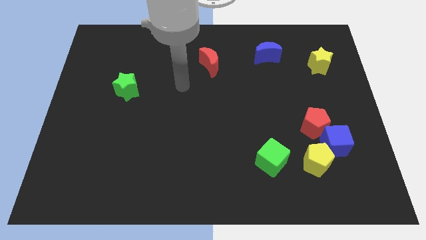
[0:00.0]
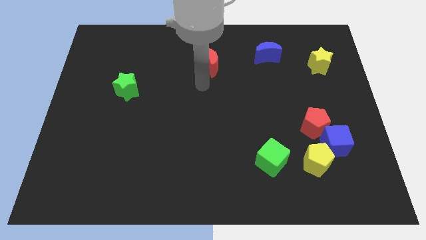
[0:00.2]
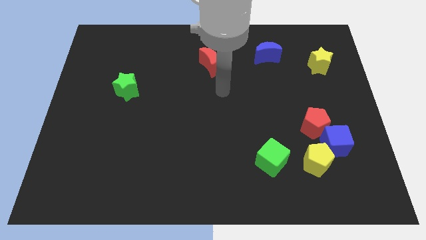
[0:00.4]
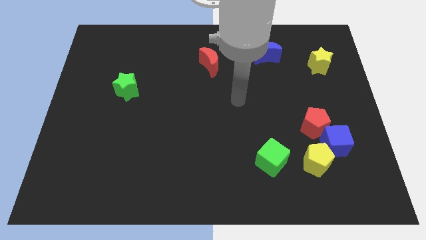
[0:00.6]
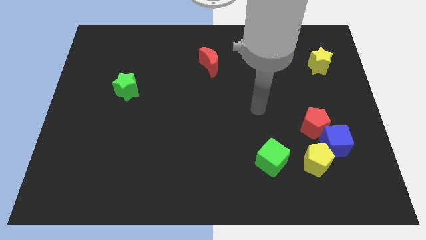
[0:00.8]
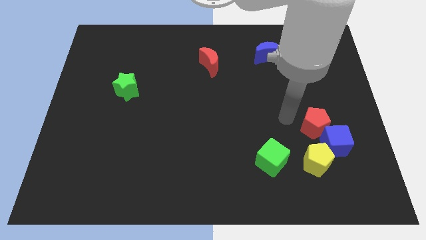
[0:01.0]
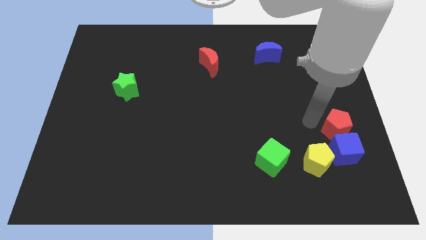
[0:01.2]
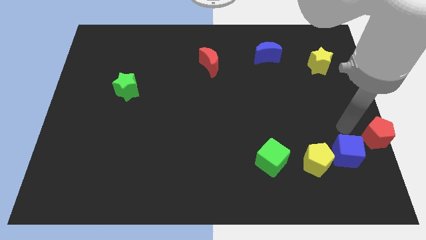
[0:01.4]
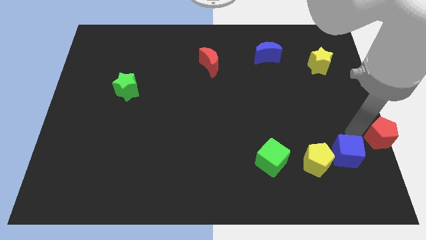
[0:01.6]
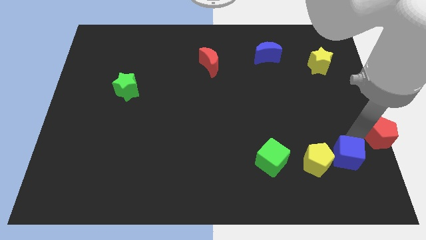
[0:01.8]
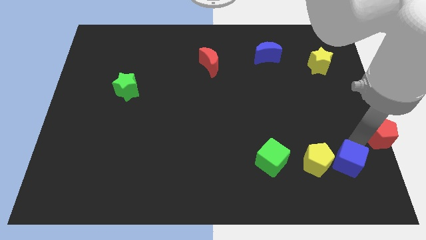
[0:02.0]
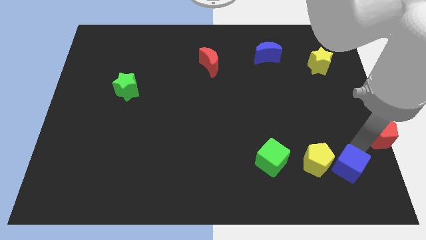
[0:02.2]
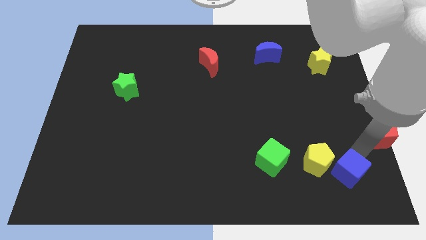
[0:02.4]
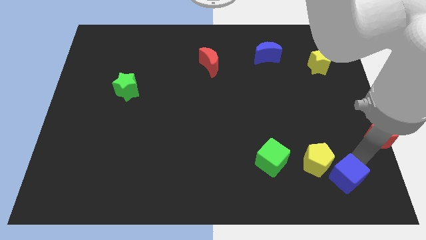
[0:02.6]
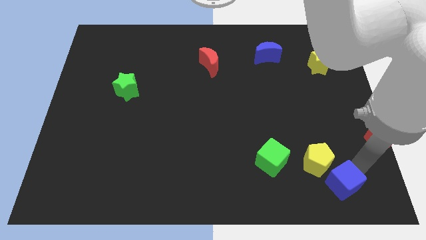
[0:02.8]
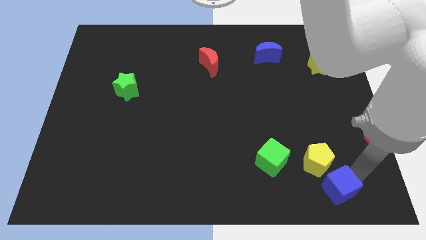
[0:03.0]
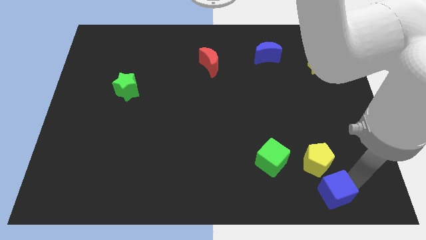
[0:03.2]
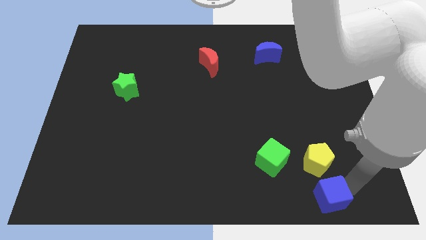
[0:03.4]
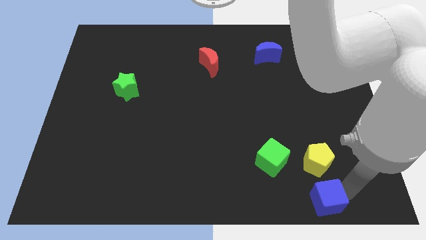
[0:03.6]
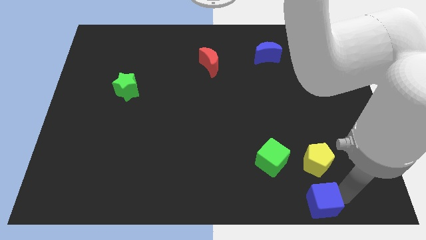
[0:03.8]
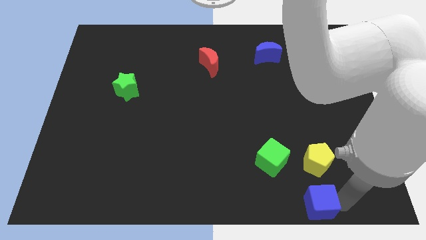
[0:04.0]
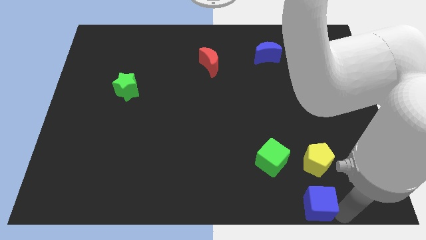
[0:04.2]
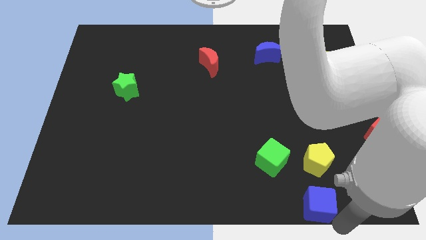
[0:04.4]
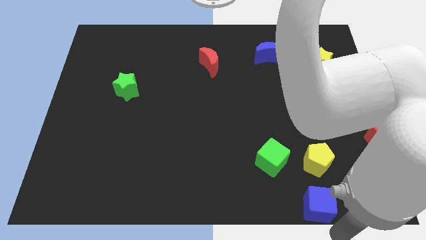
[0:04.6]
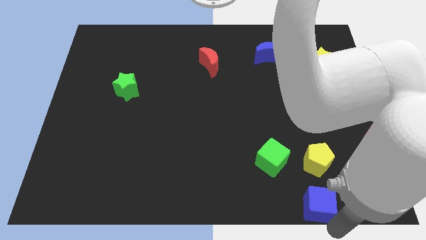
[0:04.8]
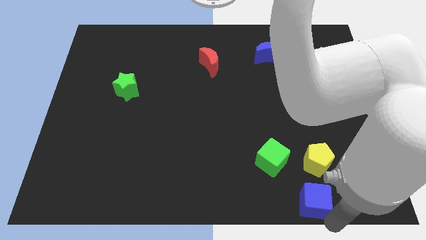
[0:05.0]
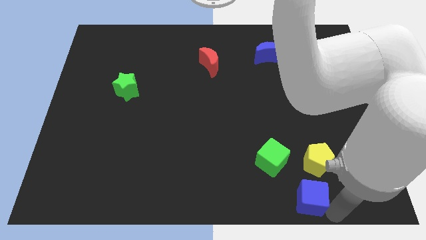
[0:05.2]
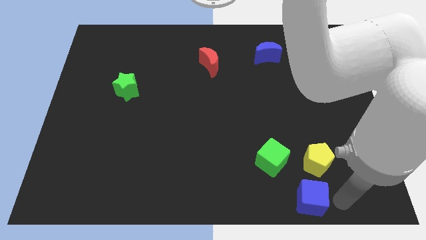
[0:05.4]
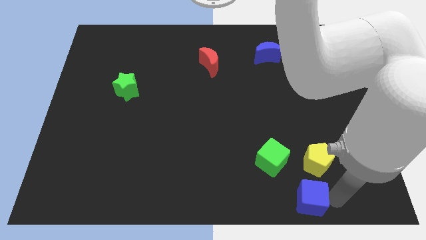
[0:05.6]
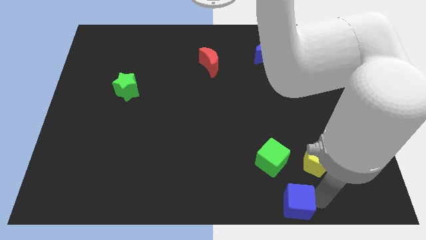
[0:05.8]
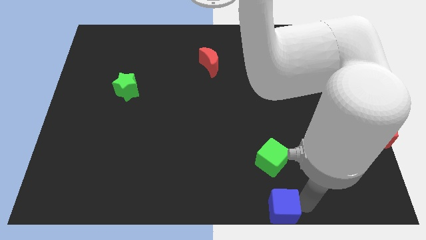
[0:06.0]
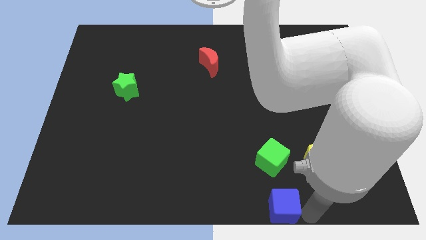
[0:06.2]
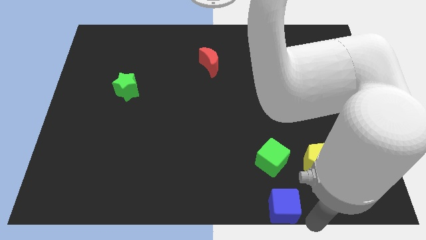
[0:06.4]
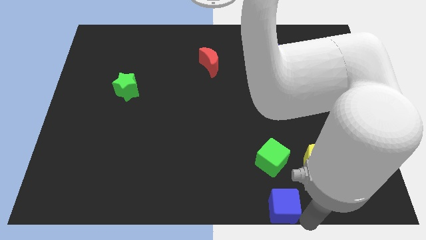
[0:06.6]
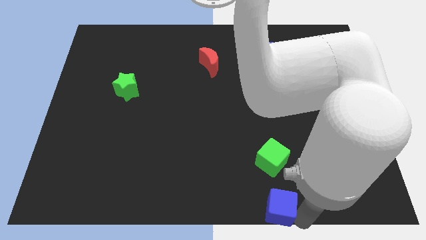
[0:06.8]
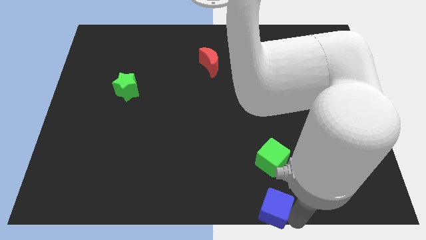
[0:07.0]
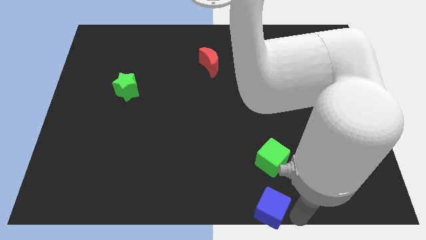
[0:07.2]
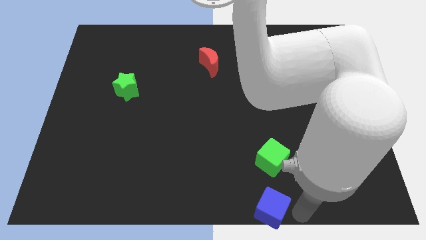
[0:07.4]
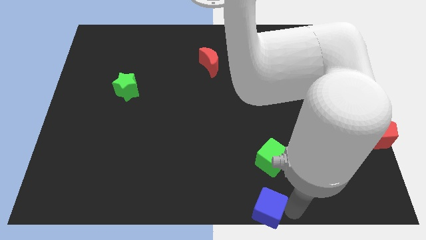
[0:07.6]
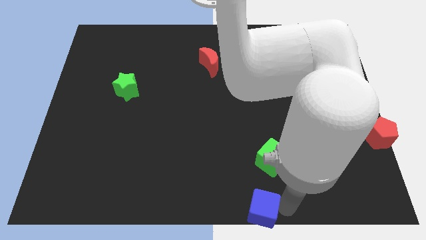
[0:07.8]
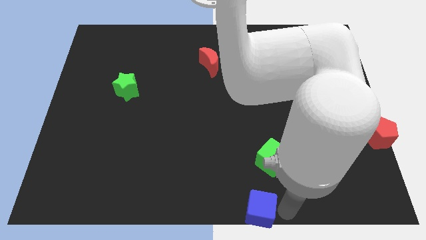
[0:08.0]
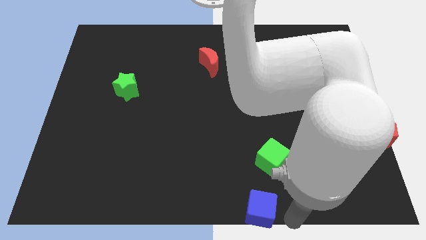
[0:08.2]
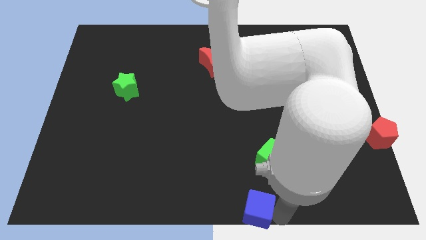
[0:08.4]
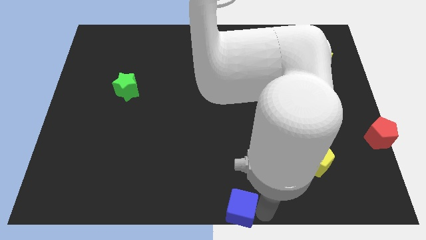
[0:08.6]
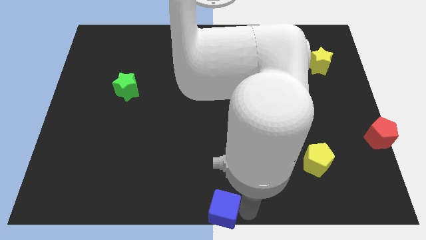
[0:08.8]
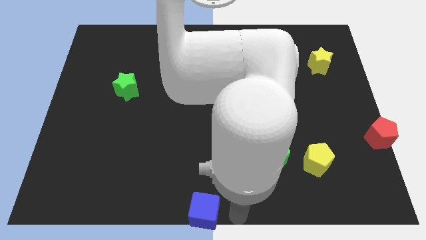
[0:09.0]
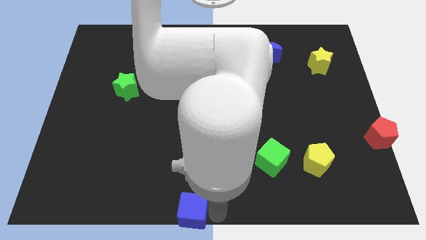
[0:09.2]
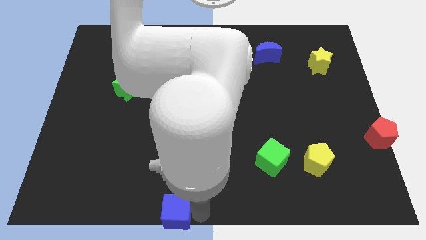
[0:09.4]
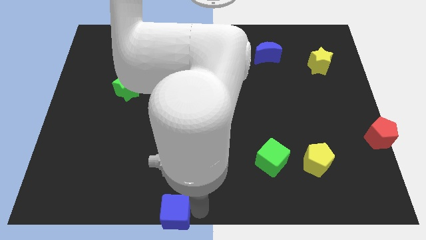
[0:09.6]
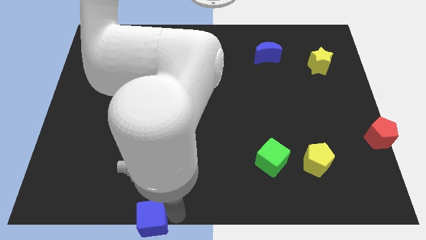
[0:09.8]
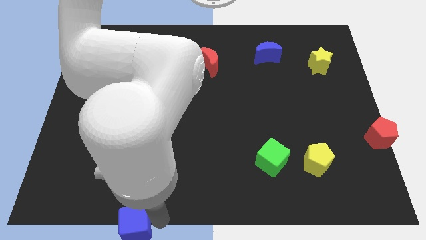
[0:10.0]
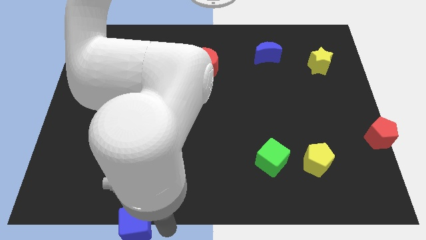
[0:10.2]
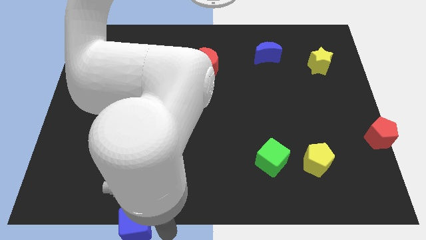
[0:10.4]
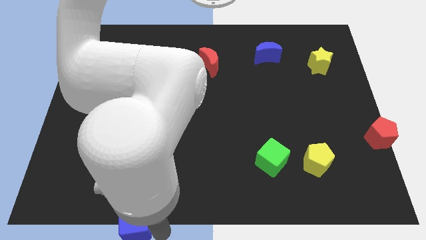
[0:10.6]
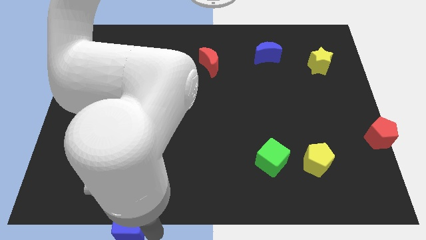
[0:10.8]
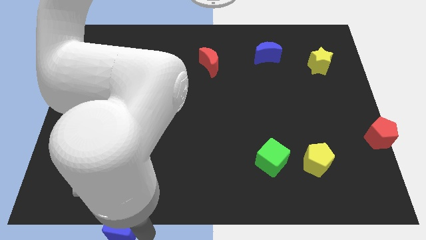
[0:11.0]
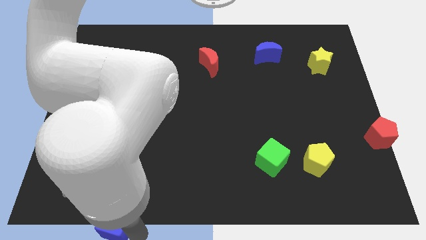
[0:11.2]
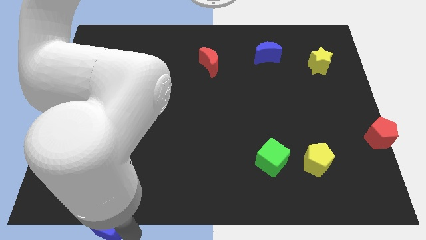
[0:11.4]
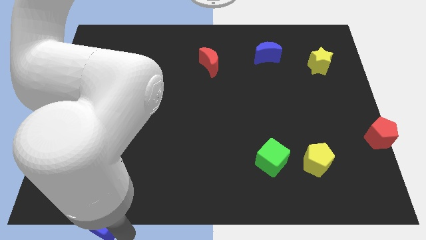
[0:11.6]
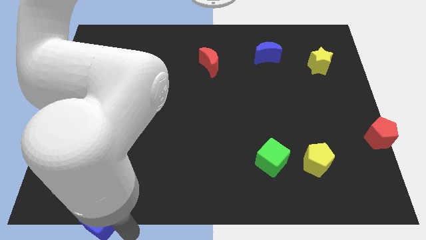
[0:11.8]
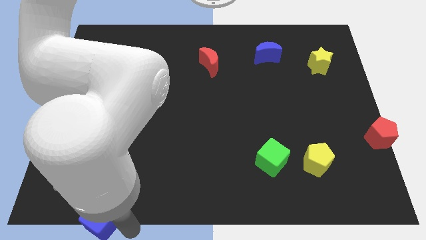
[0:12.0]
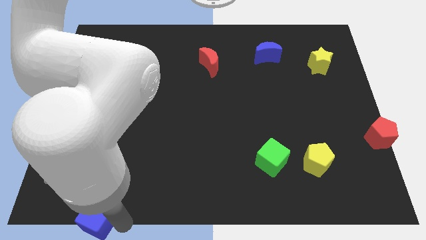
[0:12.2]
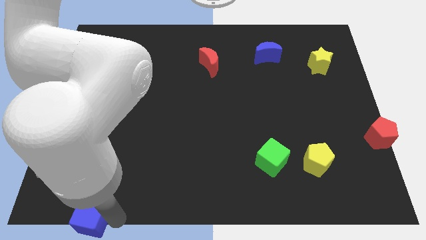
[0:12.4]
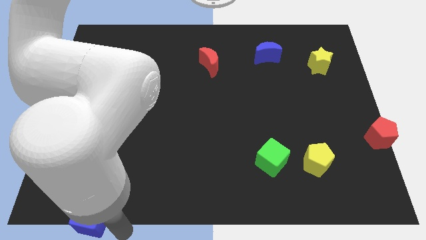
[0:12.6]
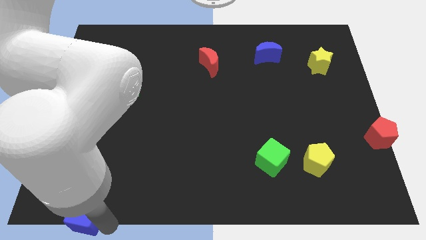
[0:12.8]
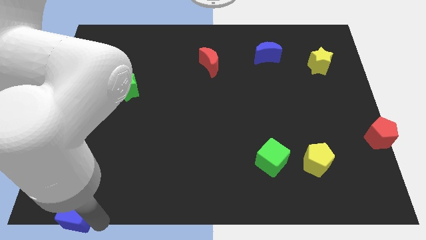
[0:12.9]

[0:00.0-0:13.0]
put the blue cube to the bottom left corner
